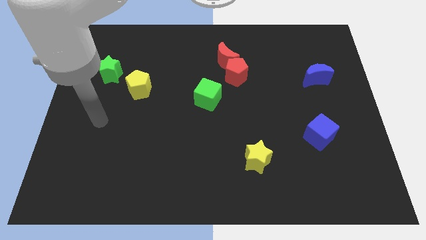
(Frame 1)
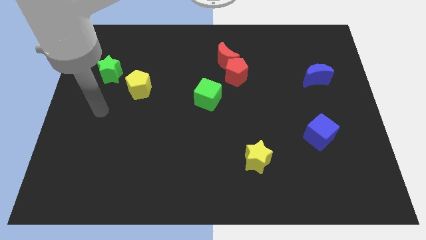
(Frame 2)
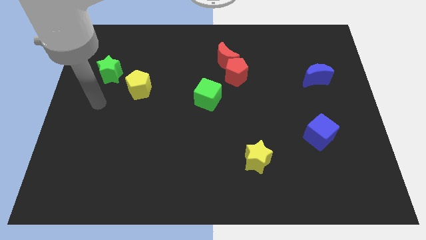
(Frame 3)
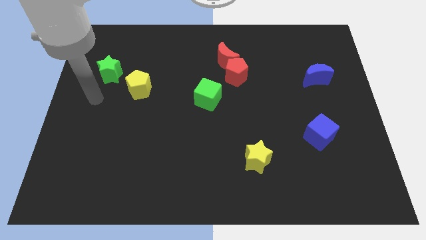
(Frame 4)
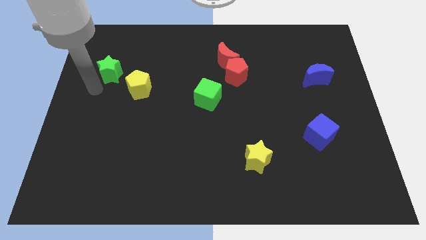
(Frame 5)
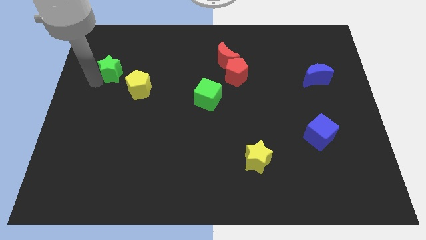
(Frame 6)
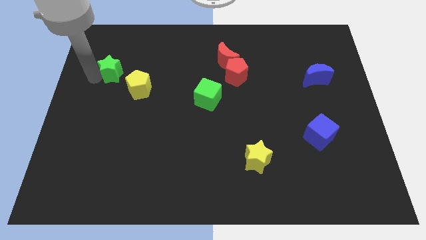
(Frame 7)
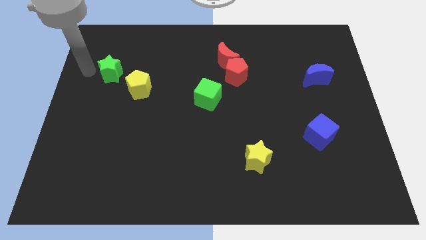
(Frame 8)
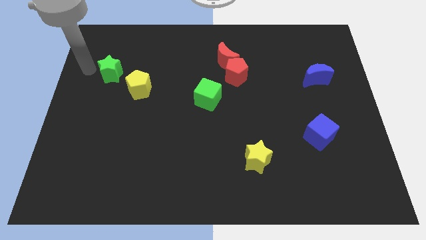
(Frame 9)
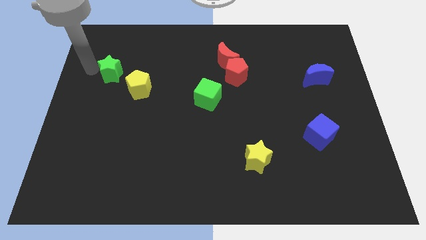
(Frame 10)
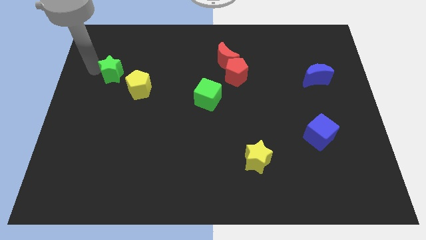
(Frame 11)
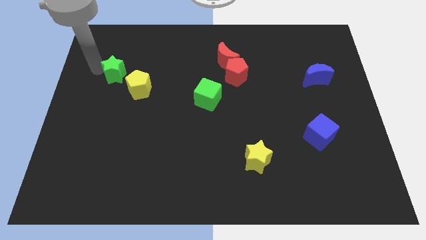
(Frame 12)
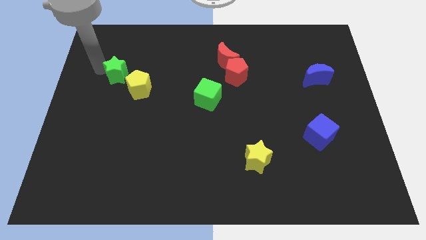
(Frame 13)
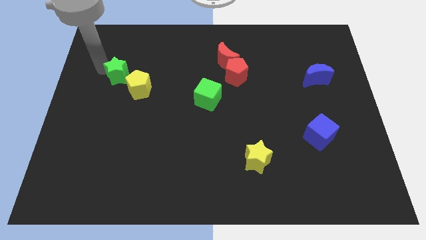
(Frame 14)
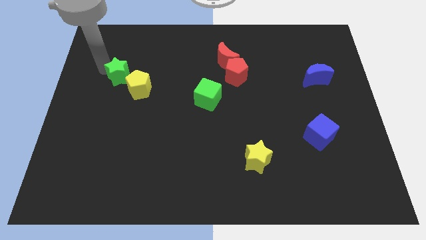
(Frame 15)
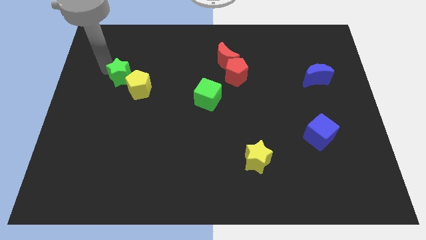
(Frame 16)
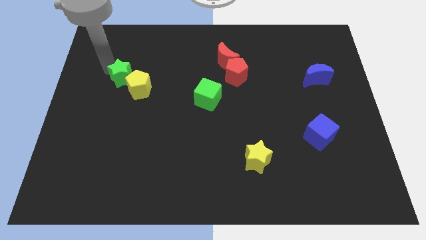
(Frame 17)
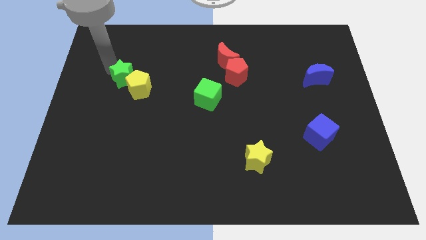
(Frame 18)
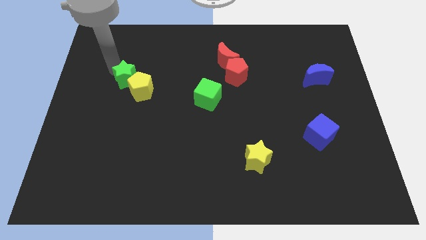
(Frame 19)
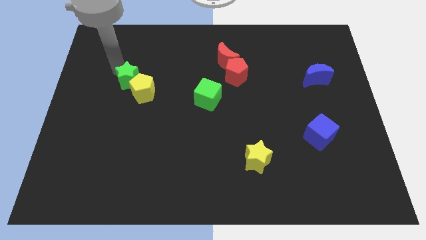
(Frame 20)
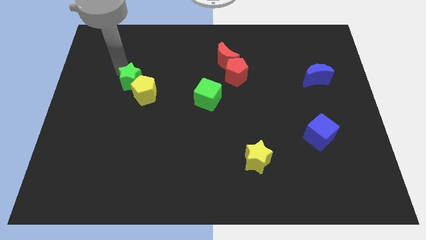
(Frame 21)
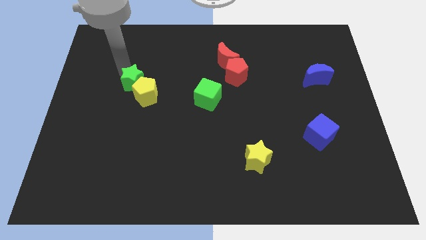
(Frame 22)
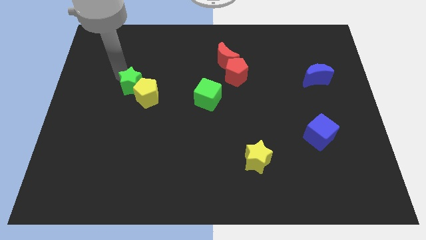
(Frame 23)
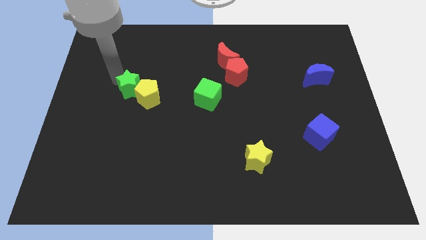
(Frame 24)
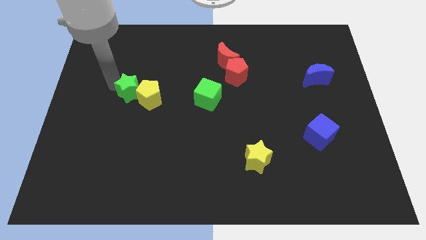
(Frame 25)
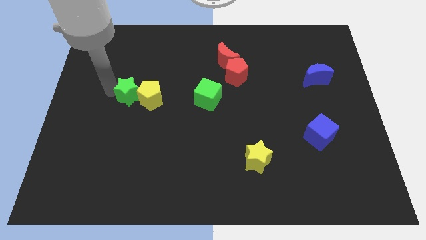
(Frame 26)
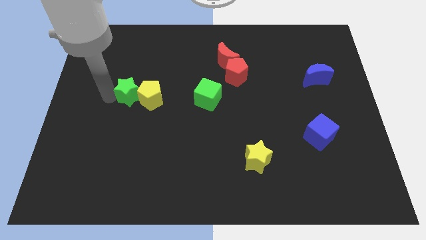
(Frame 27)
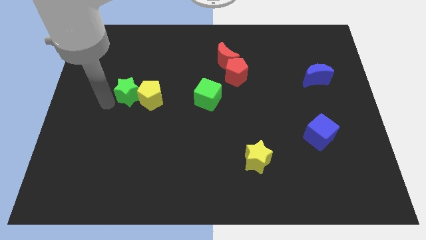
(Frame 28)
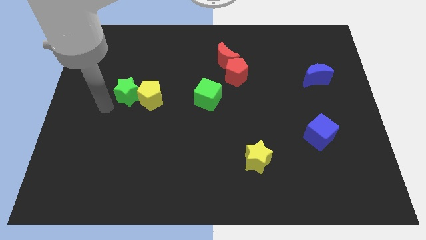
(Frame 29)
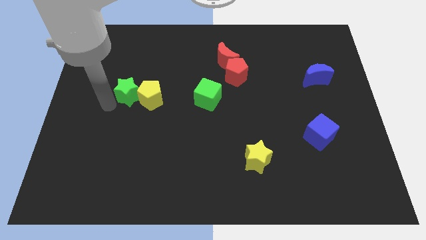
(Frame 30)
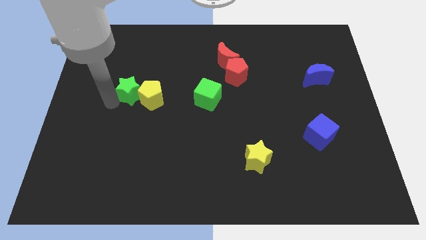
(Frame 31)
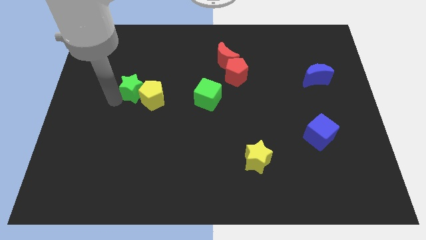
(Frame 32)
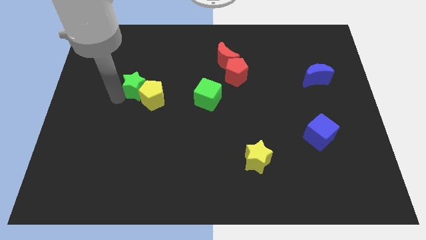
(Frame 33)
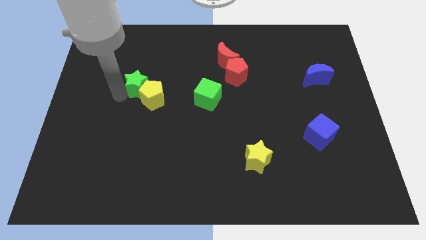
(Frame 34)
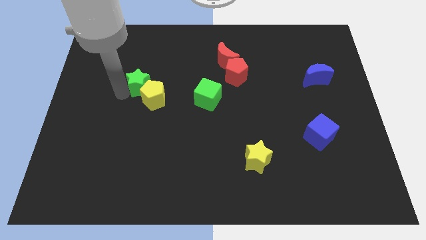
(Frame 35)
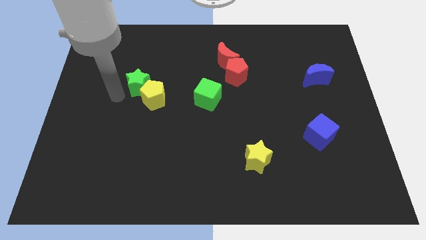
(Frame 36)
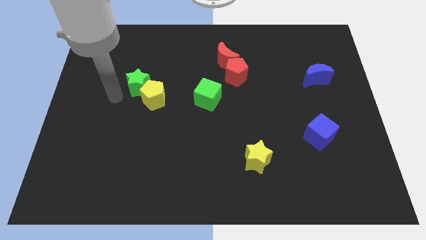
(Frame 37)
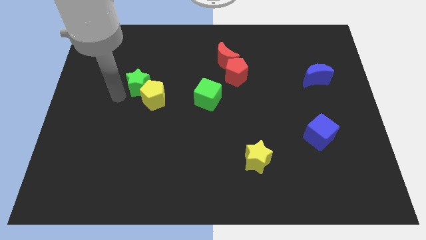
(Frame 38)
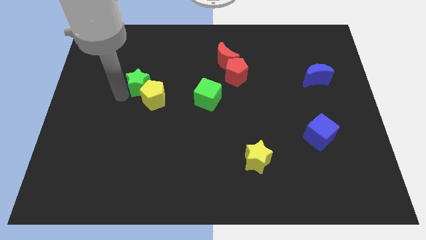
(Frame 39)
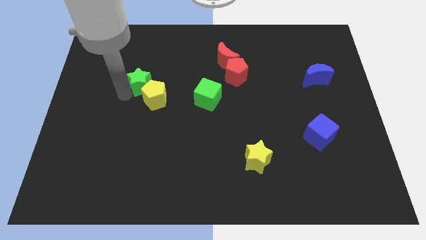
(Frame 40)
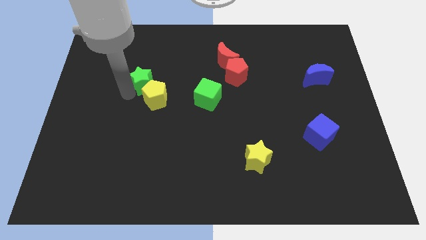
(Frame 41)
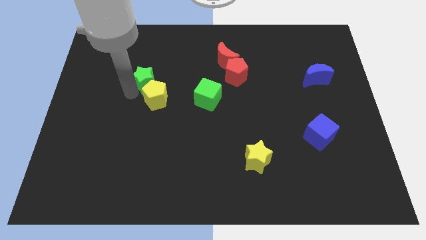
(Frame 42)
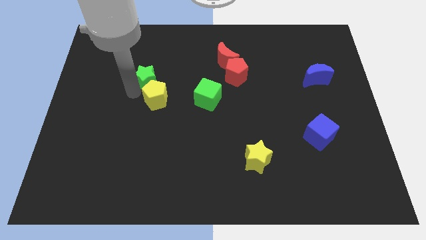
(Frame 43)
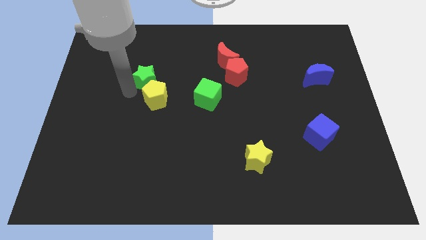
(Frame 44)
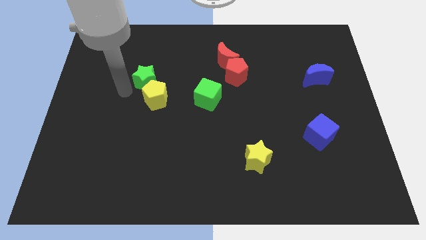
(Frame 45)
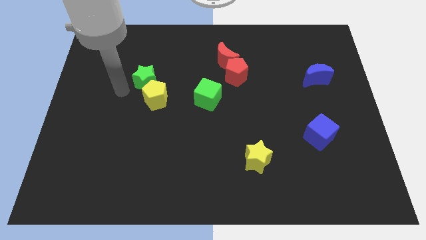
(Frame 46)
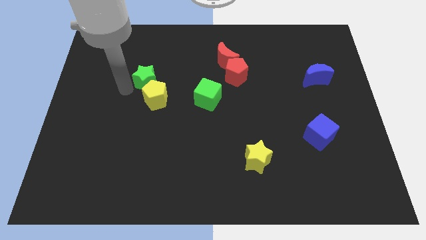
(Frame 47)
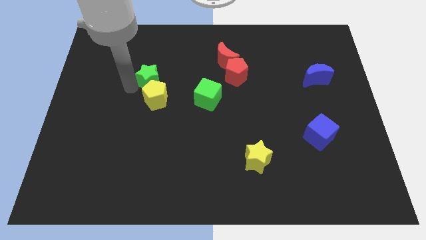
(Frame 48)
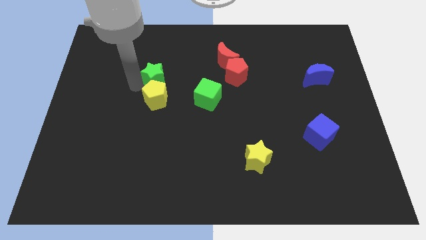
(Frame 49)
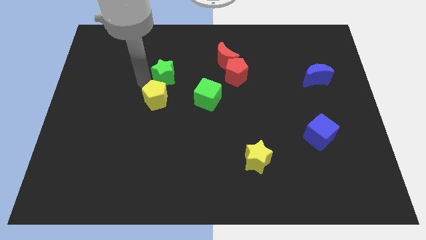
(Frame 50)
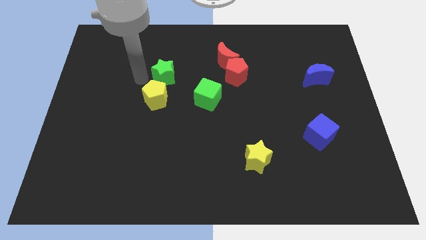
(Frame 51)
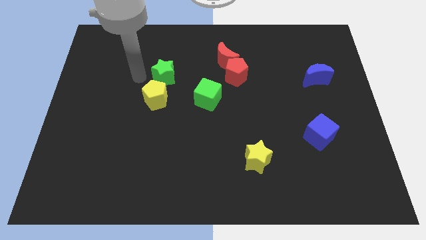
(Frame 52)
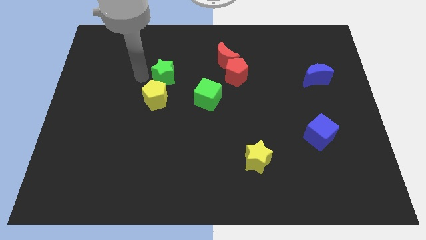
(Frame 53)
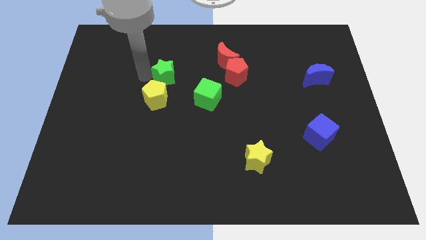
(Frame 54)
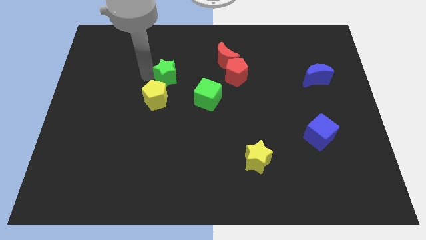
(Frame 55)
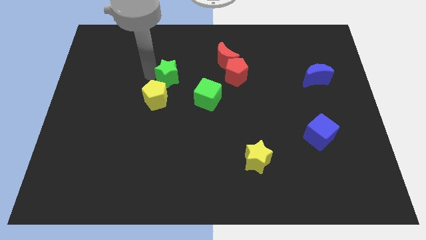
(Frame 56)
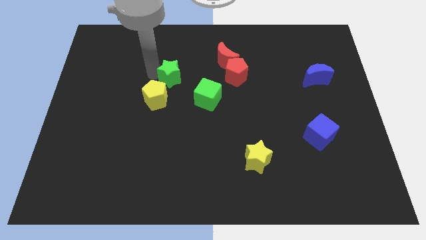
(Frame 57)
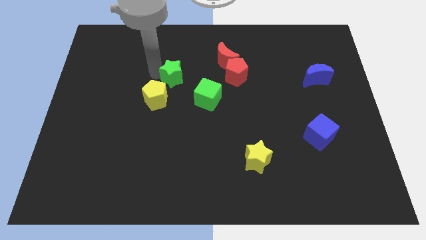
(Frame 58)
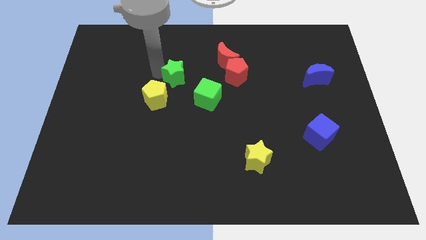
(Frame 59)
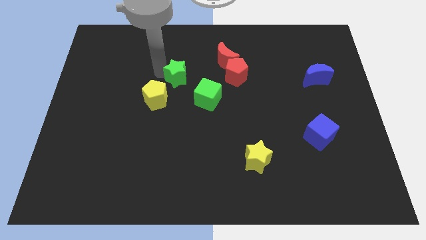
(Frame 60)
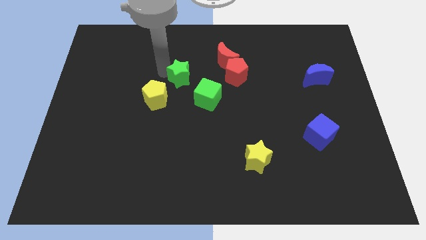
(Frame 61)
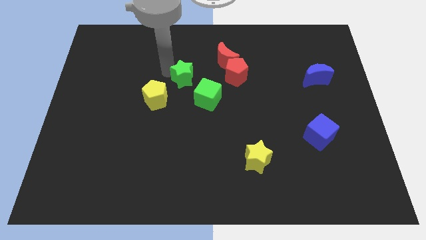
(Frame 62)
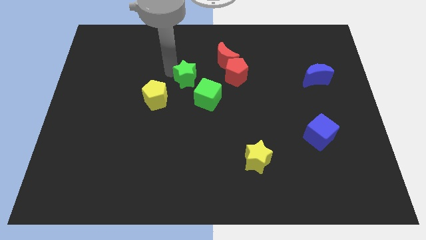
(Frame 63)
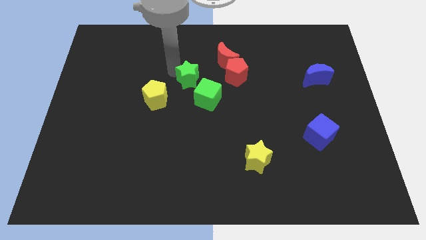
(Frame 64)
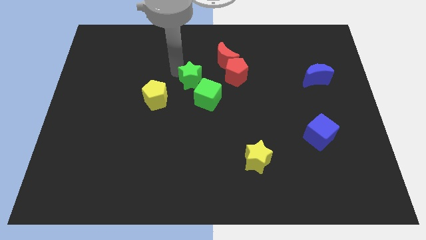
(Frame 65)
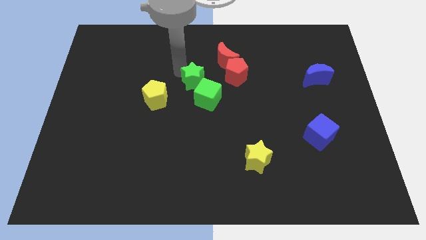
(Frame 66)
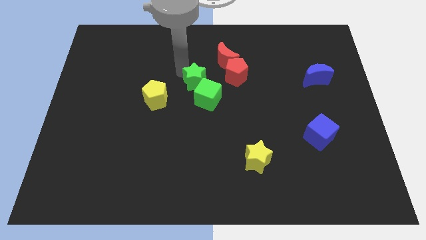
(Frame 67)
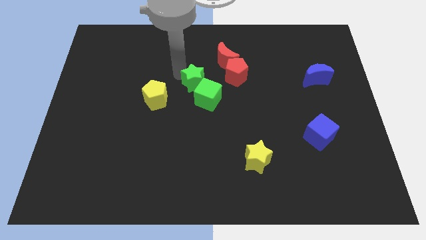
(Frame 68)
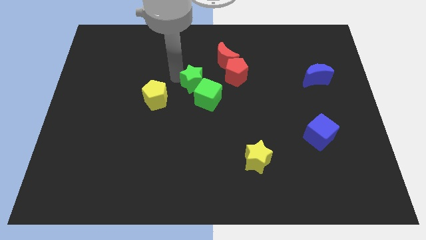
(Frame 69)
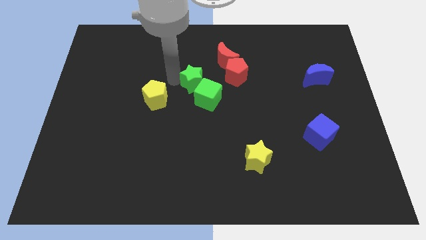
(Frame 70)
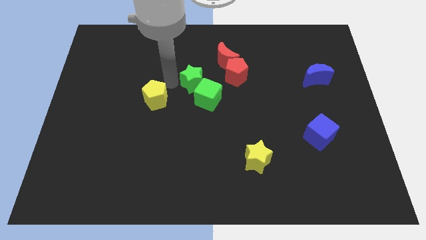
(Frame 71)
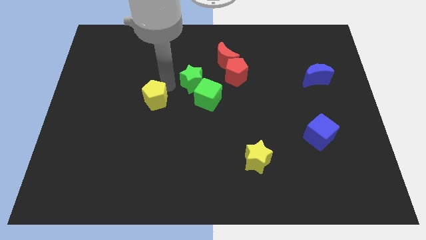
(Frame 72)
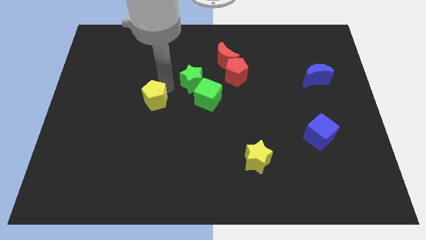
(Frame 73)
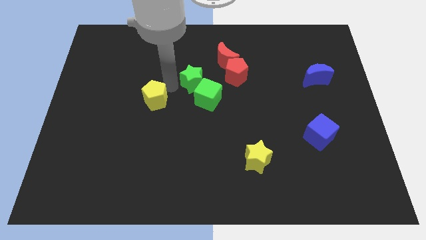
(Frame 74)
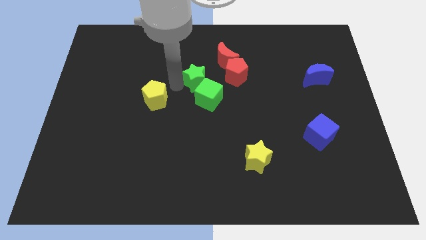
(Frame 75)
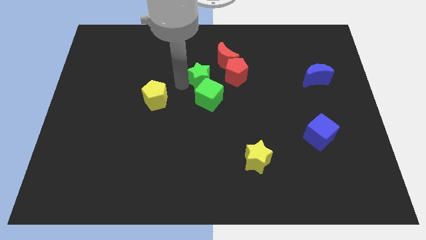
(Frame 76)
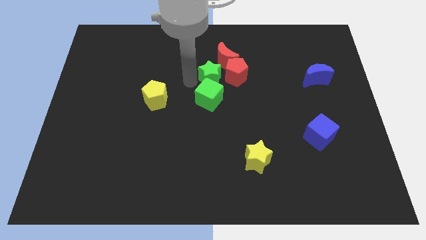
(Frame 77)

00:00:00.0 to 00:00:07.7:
move the green star to the red pentagon
